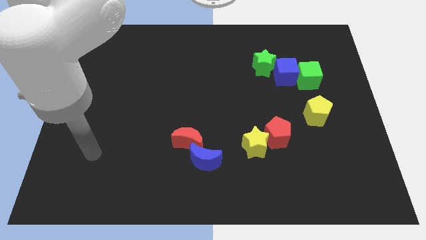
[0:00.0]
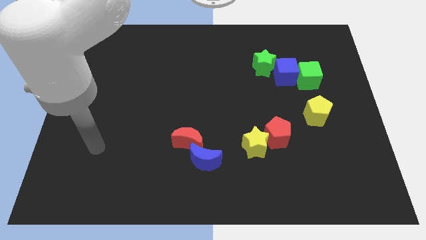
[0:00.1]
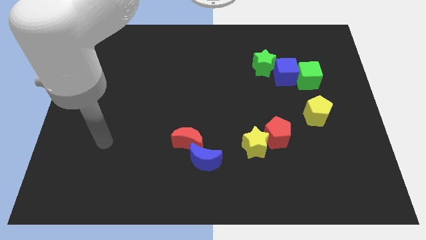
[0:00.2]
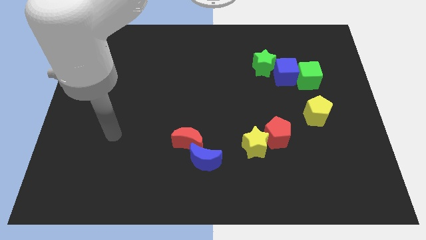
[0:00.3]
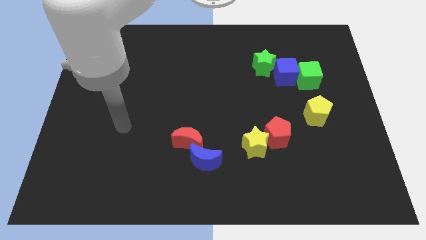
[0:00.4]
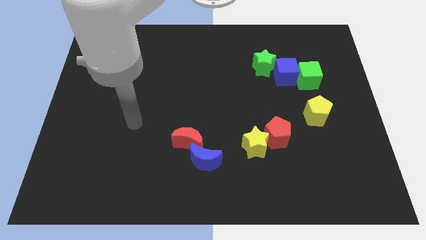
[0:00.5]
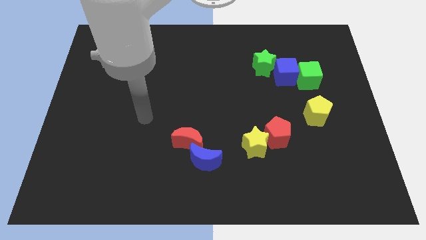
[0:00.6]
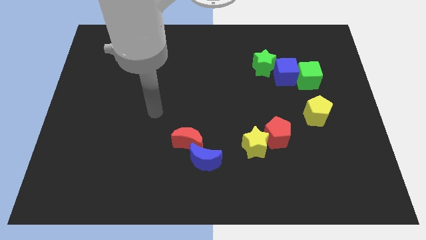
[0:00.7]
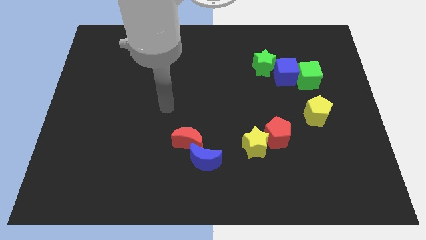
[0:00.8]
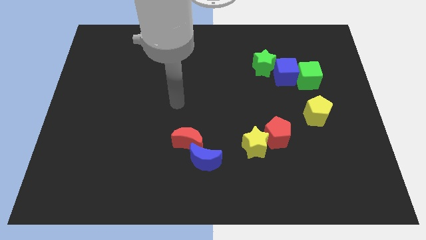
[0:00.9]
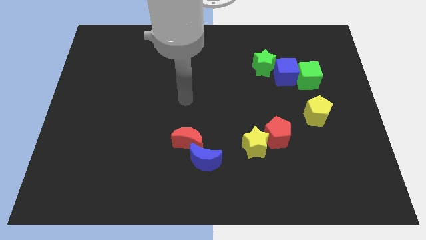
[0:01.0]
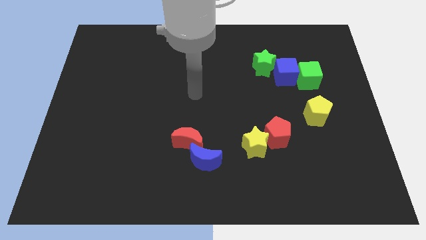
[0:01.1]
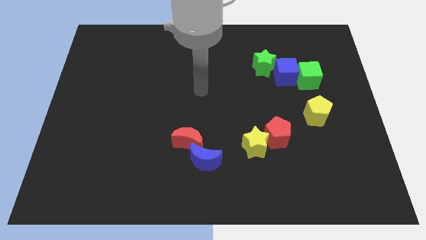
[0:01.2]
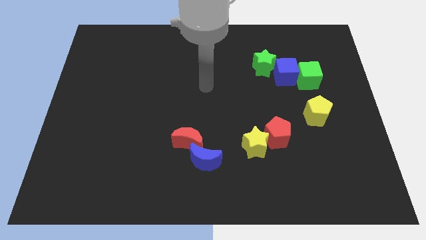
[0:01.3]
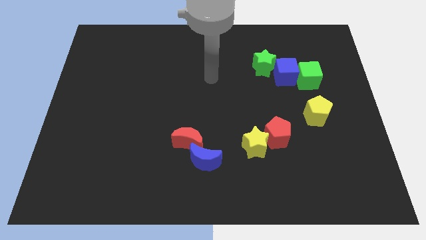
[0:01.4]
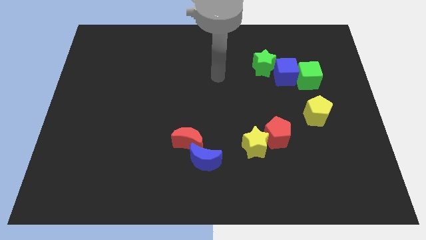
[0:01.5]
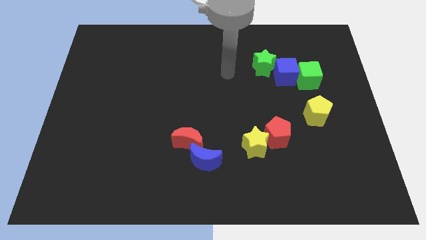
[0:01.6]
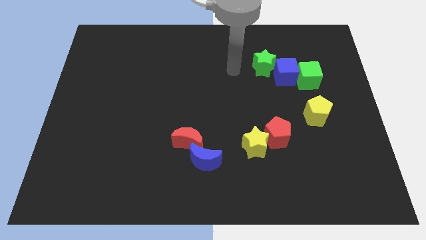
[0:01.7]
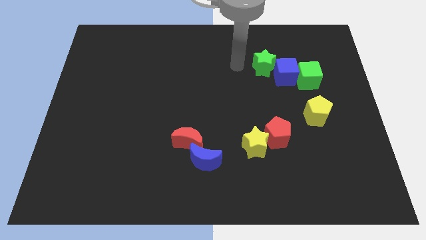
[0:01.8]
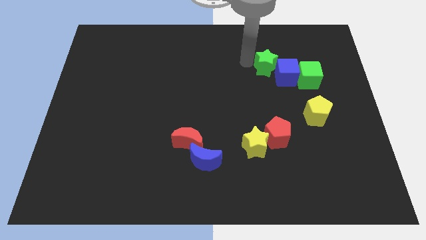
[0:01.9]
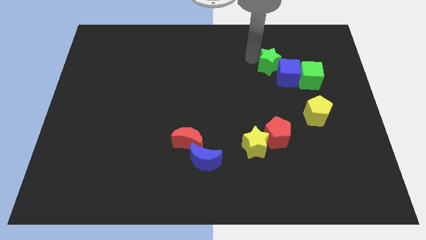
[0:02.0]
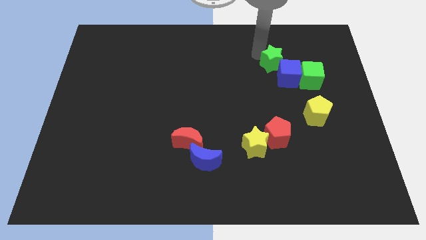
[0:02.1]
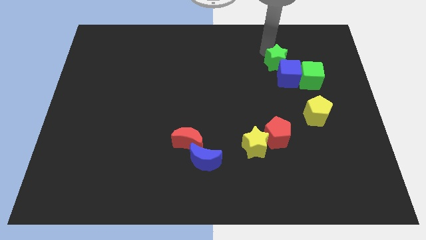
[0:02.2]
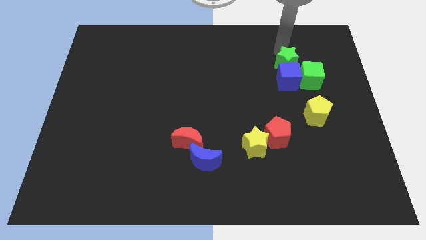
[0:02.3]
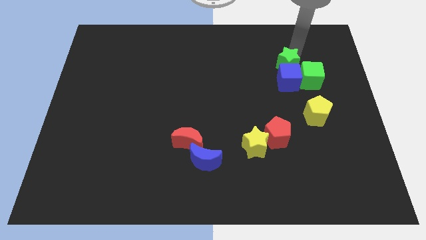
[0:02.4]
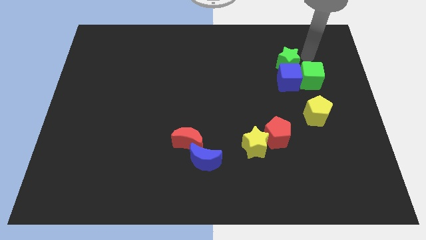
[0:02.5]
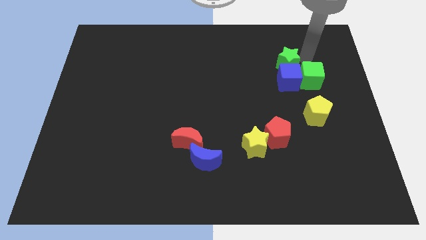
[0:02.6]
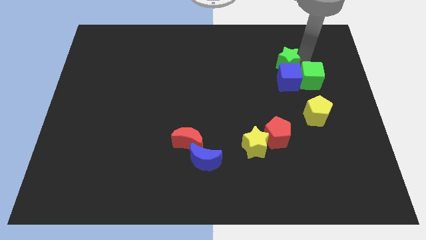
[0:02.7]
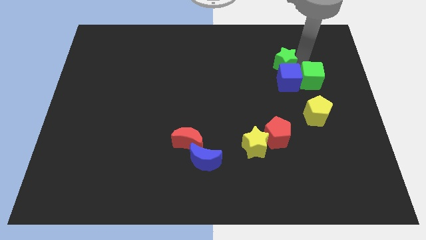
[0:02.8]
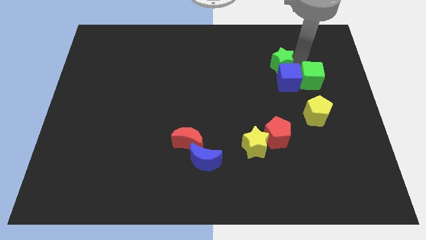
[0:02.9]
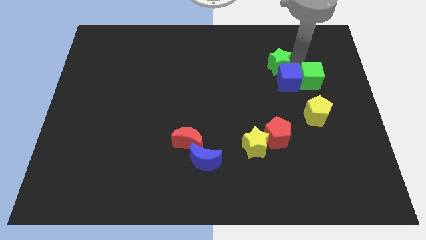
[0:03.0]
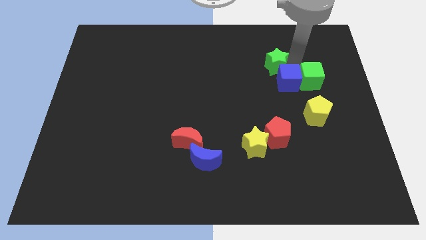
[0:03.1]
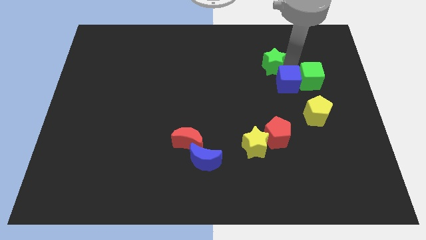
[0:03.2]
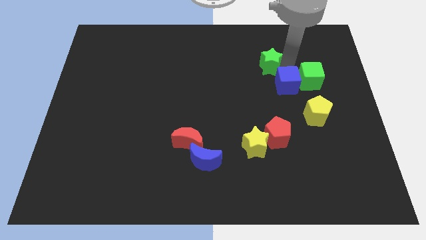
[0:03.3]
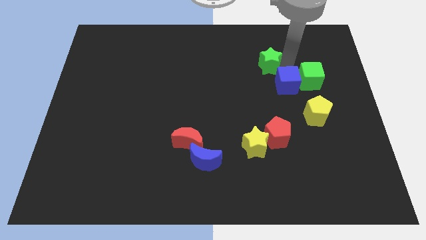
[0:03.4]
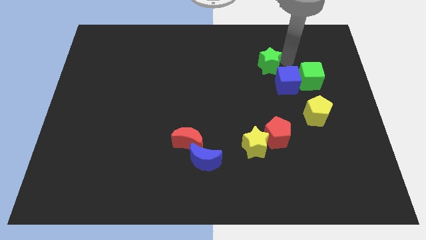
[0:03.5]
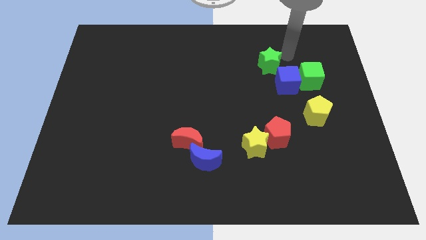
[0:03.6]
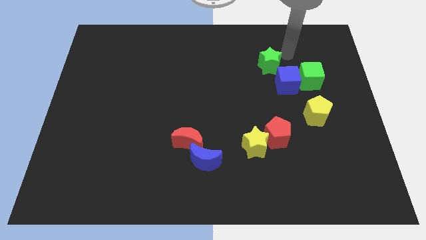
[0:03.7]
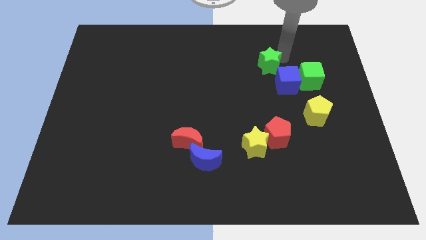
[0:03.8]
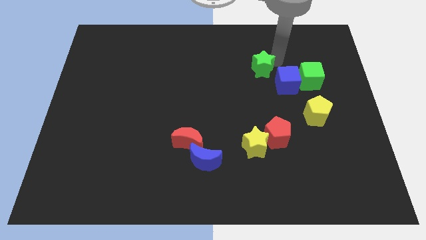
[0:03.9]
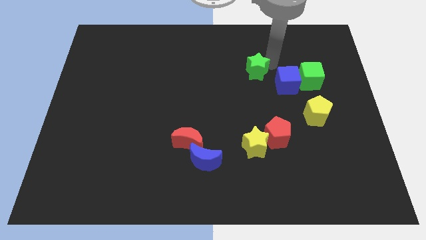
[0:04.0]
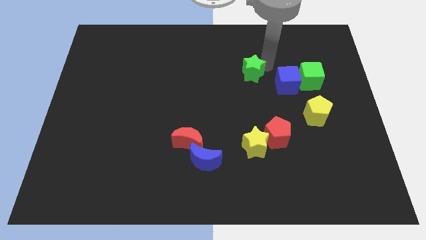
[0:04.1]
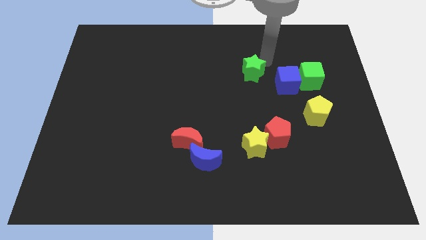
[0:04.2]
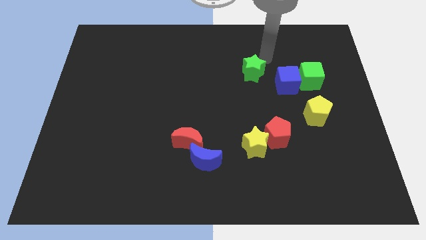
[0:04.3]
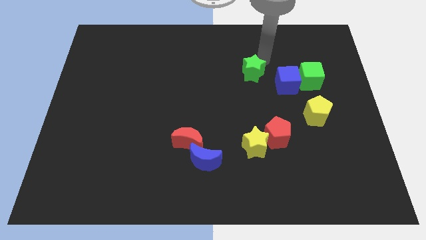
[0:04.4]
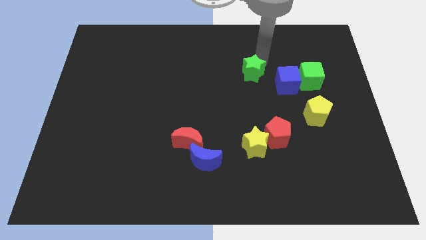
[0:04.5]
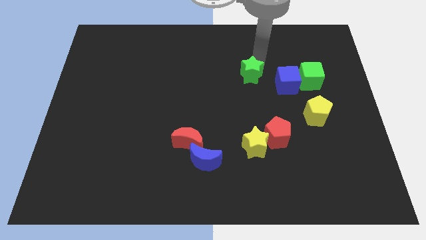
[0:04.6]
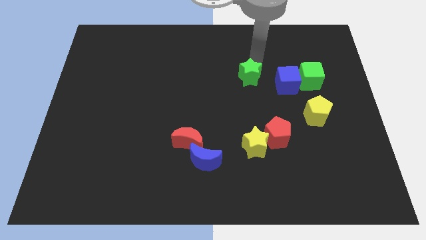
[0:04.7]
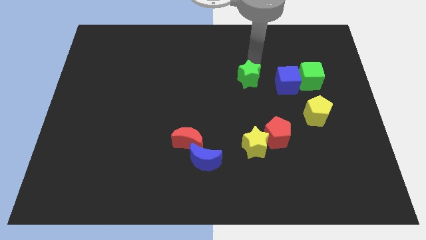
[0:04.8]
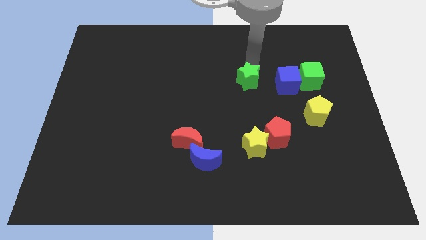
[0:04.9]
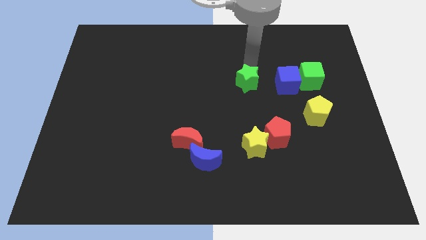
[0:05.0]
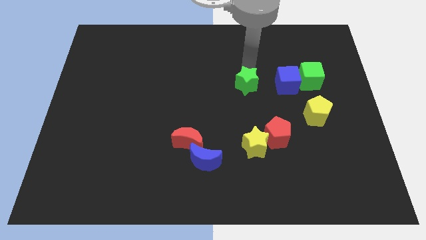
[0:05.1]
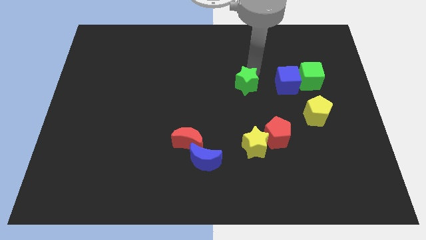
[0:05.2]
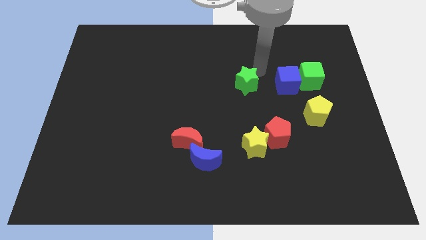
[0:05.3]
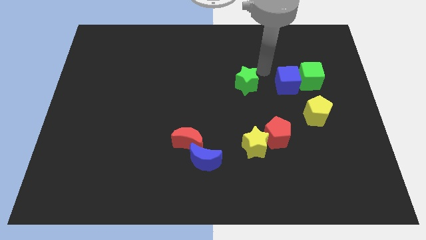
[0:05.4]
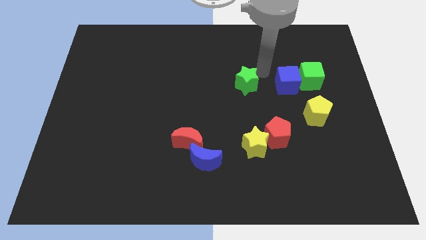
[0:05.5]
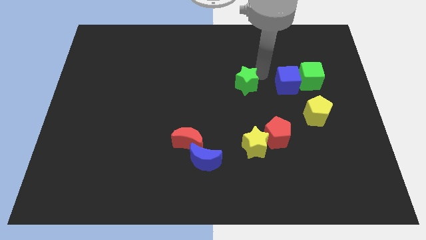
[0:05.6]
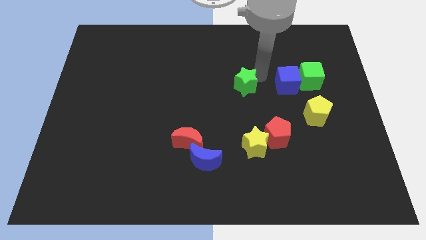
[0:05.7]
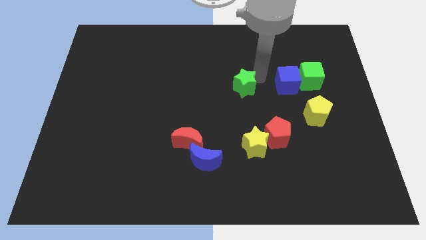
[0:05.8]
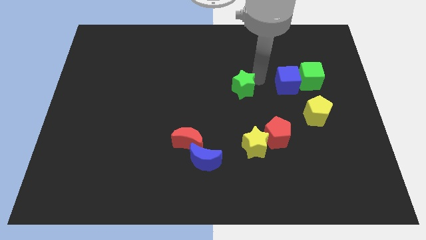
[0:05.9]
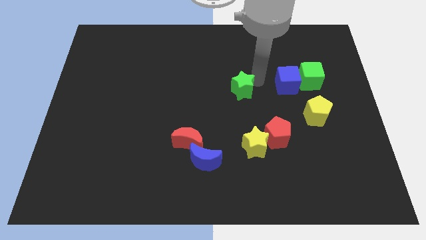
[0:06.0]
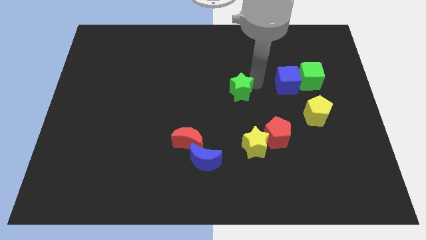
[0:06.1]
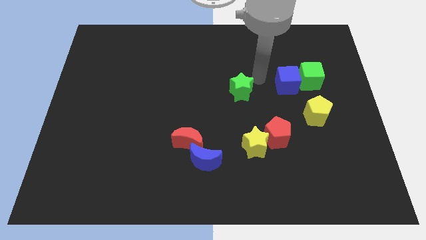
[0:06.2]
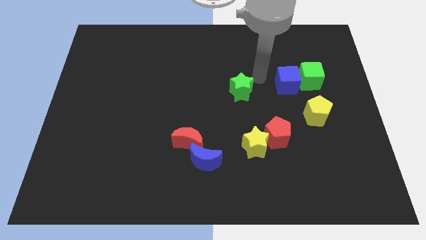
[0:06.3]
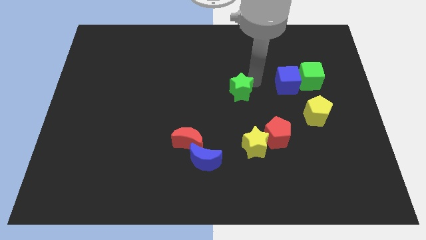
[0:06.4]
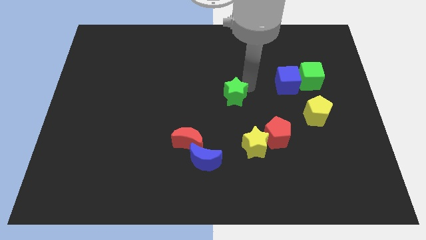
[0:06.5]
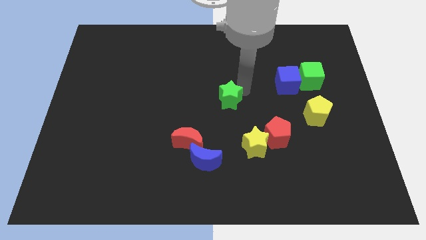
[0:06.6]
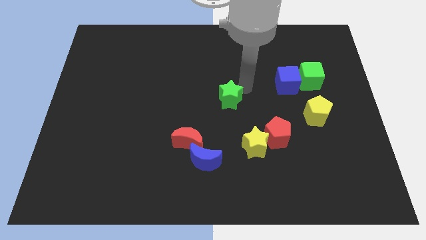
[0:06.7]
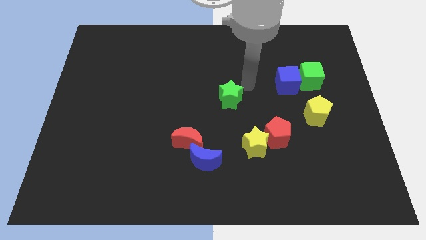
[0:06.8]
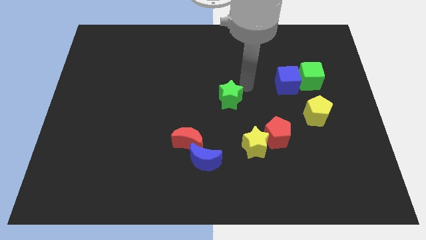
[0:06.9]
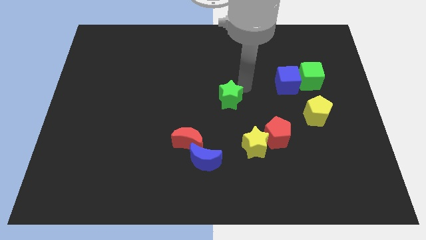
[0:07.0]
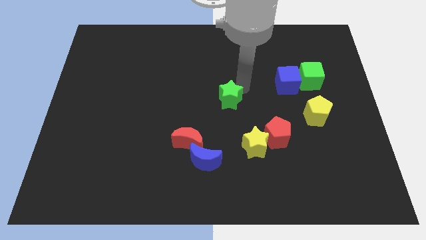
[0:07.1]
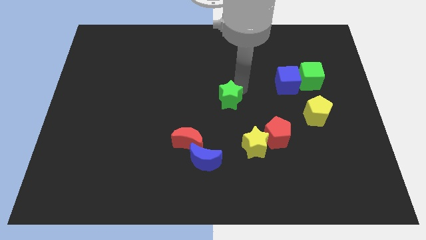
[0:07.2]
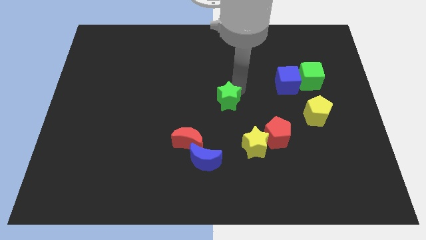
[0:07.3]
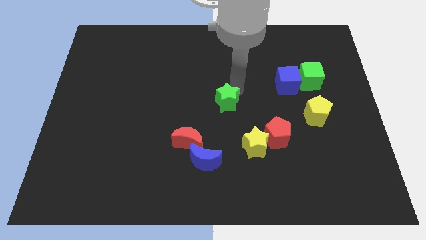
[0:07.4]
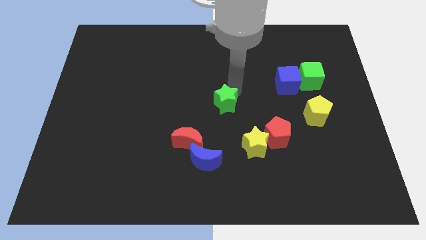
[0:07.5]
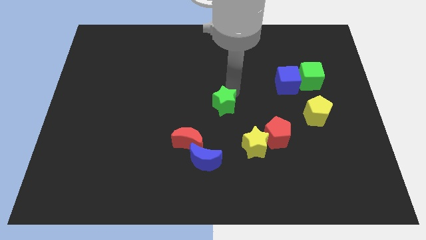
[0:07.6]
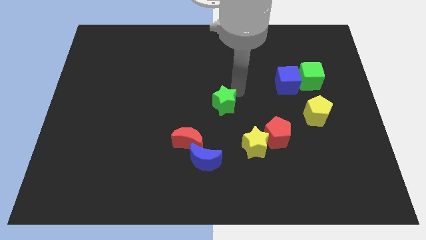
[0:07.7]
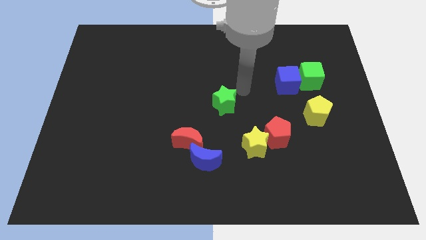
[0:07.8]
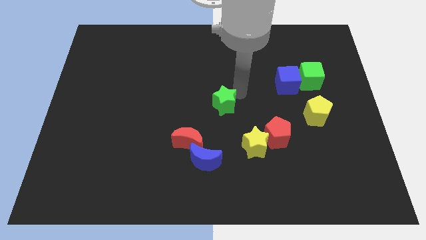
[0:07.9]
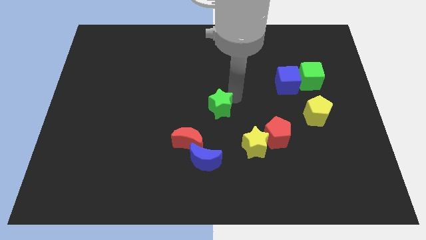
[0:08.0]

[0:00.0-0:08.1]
push the green star to the top side of the blue moon
